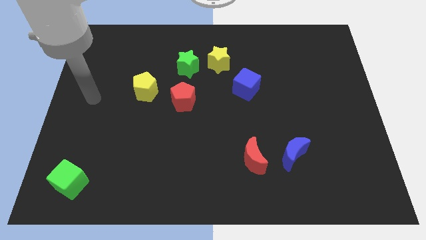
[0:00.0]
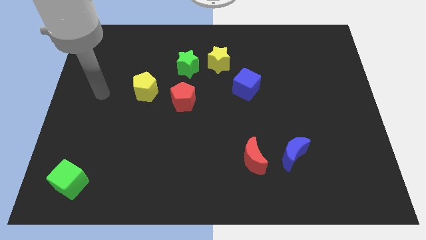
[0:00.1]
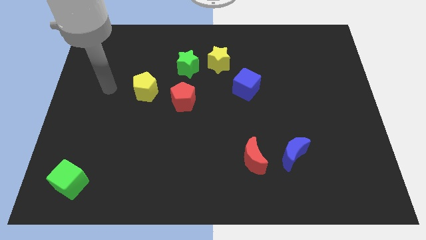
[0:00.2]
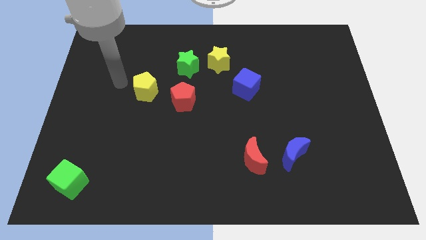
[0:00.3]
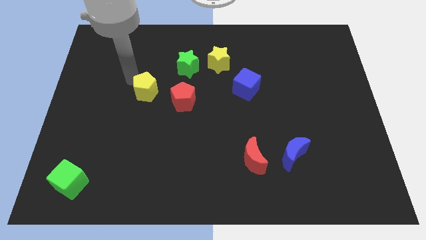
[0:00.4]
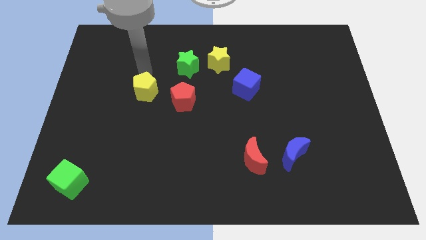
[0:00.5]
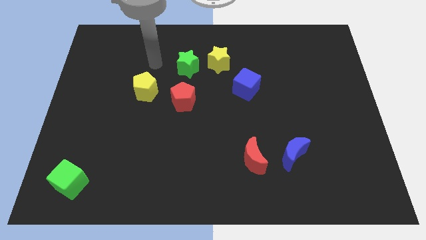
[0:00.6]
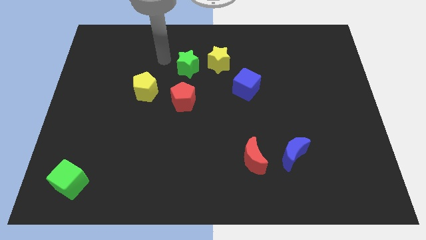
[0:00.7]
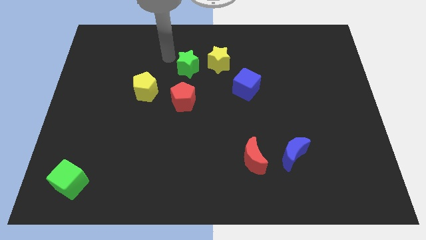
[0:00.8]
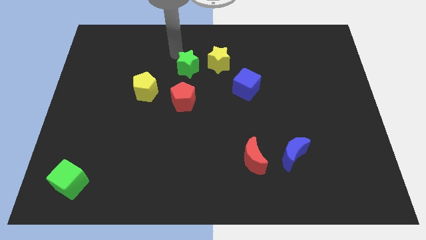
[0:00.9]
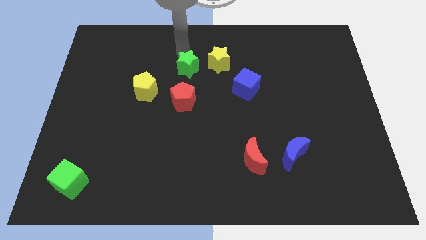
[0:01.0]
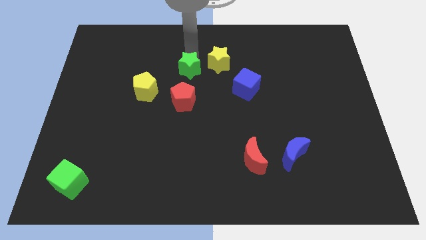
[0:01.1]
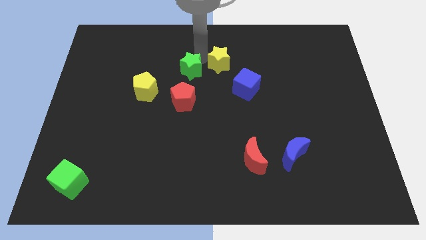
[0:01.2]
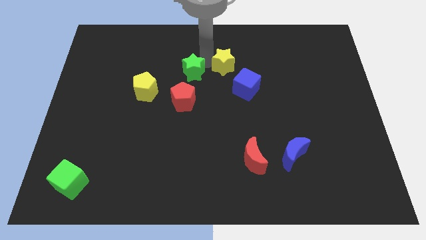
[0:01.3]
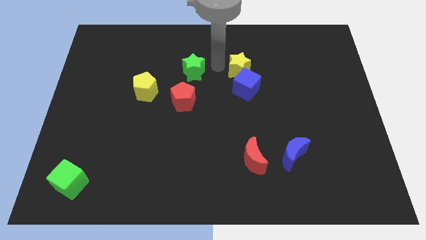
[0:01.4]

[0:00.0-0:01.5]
separate the green star from the yellow star

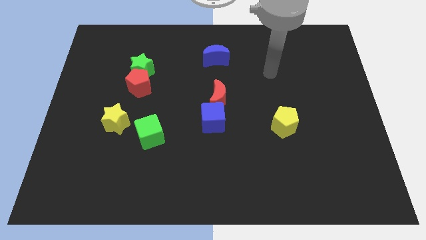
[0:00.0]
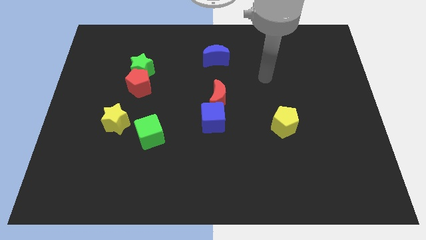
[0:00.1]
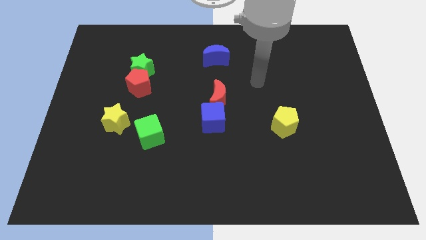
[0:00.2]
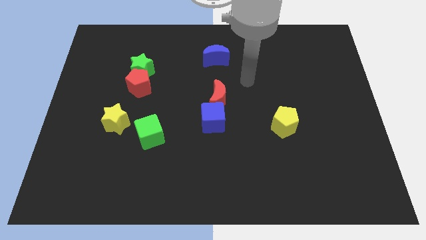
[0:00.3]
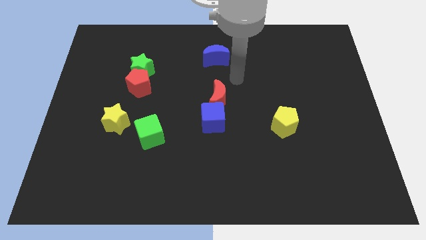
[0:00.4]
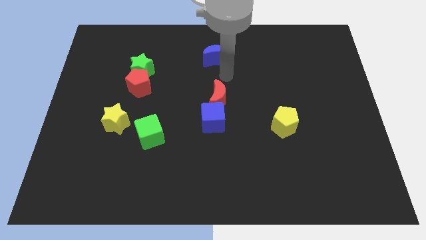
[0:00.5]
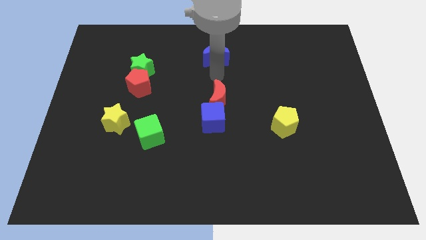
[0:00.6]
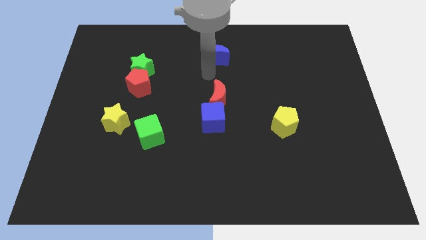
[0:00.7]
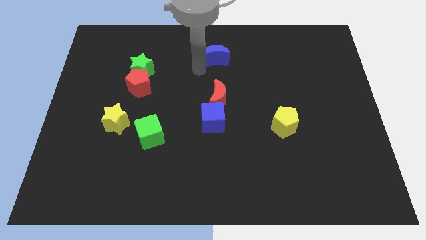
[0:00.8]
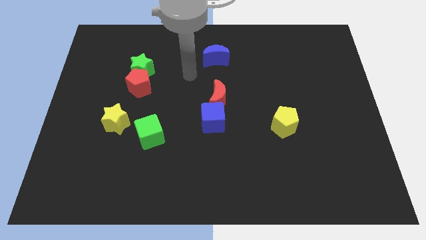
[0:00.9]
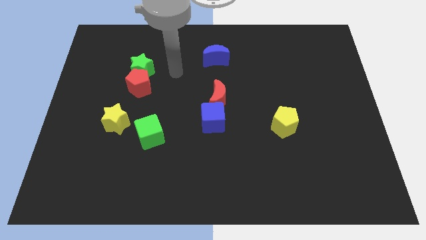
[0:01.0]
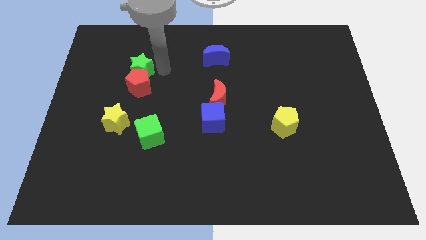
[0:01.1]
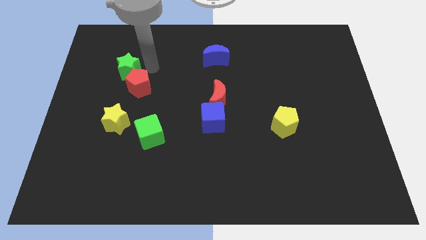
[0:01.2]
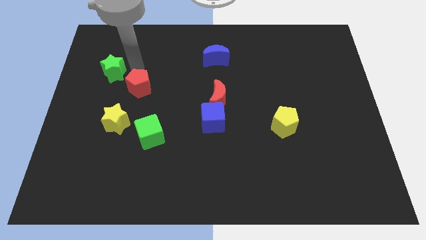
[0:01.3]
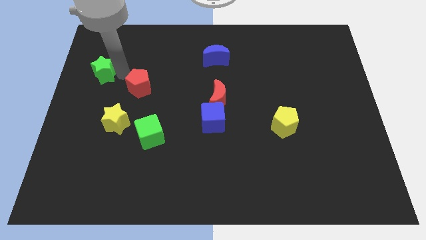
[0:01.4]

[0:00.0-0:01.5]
pull the red pentagon apart from the green star

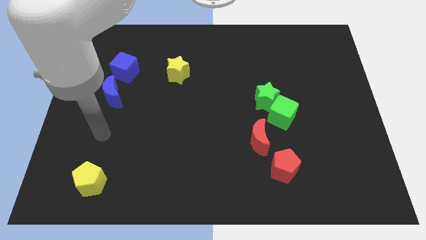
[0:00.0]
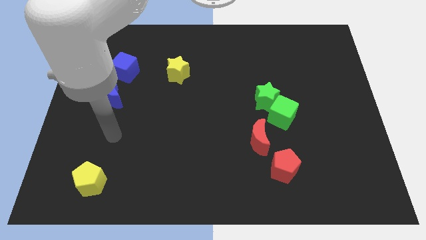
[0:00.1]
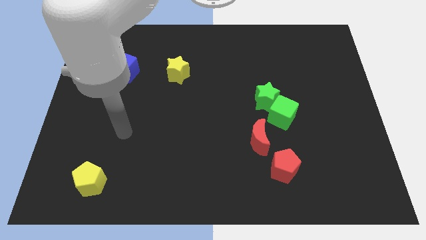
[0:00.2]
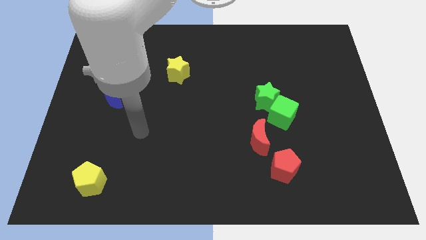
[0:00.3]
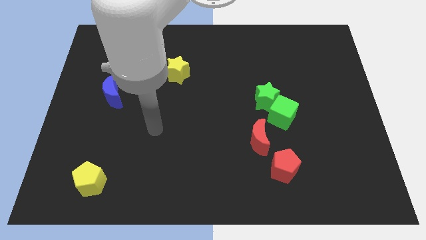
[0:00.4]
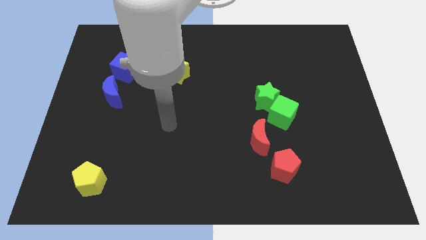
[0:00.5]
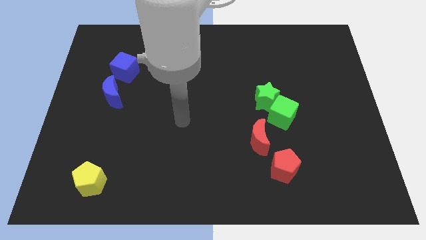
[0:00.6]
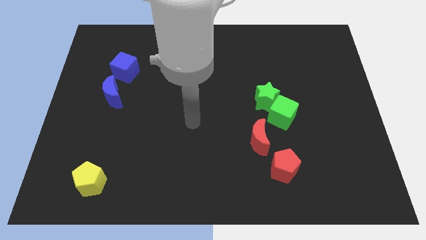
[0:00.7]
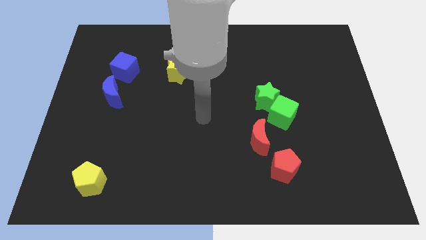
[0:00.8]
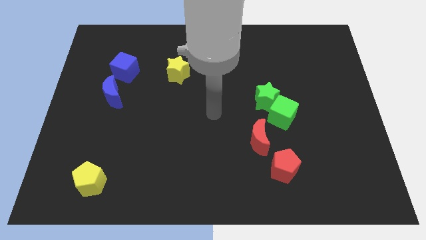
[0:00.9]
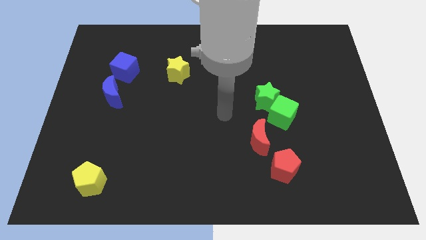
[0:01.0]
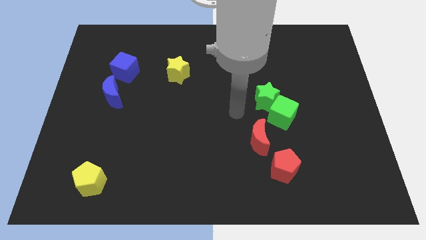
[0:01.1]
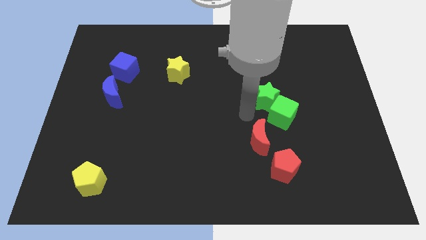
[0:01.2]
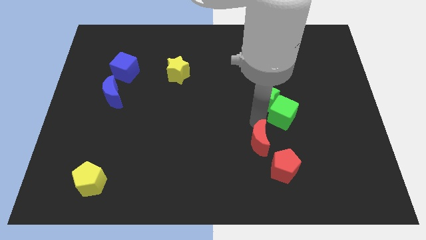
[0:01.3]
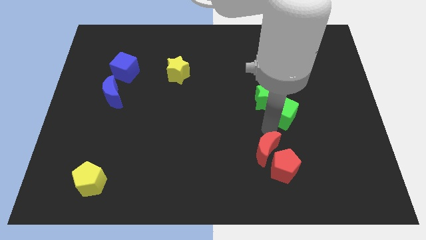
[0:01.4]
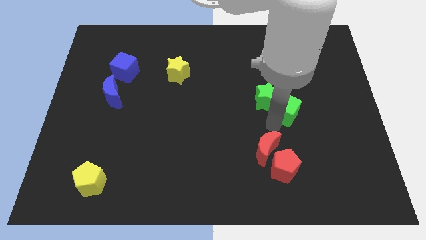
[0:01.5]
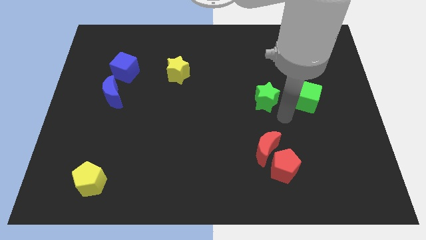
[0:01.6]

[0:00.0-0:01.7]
pull the green star apart from the green cube

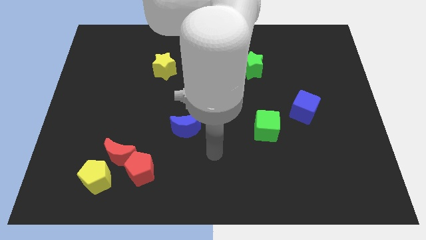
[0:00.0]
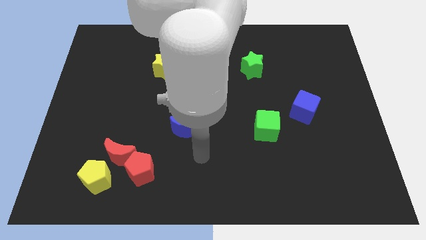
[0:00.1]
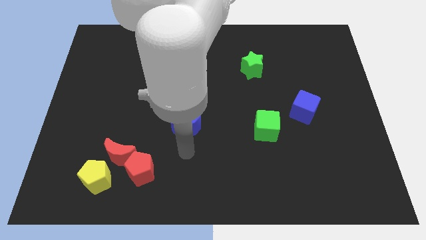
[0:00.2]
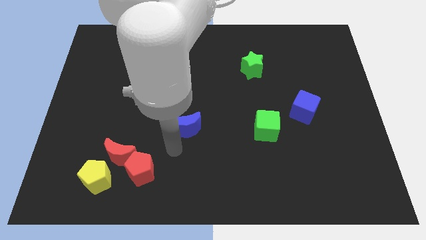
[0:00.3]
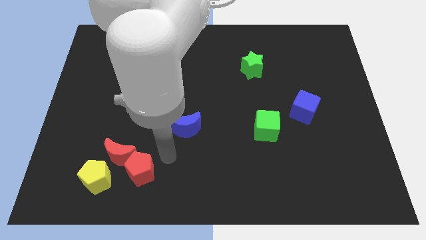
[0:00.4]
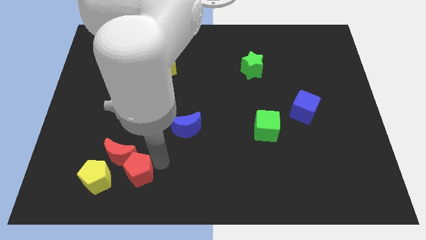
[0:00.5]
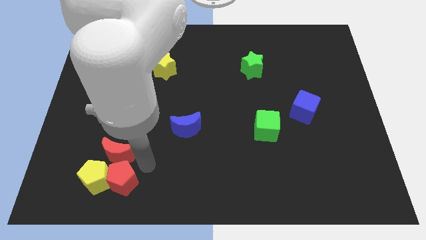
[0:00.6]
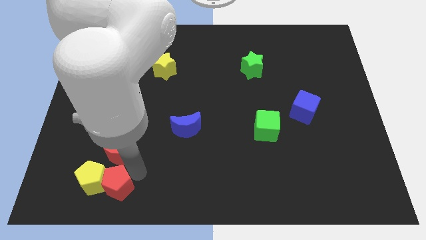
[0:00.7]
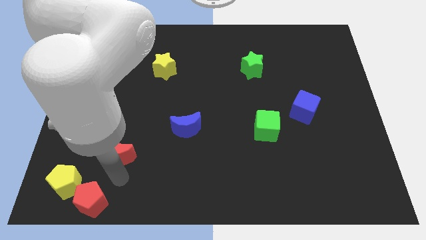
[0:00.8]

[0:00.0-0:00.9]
pull the red moon apart from the red pentagon and yellow pentagon

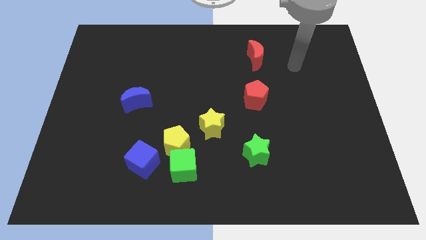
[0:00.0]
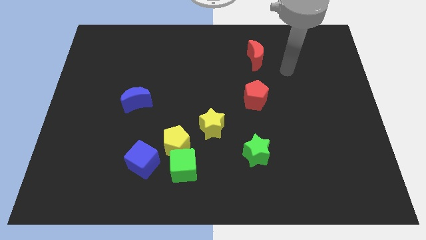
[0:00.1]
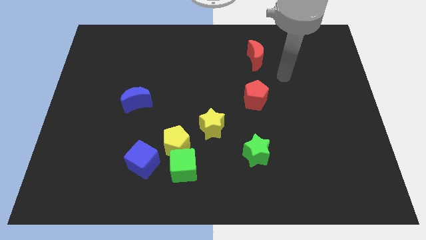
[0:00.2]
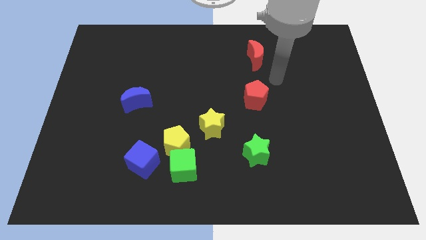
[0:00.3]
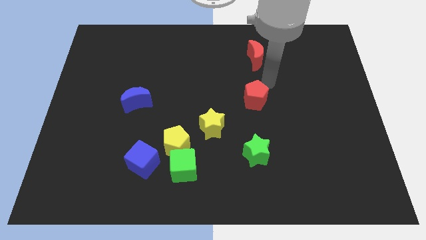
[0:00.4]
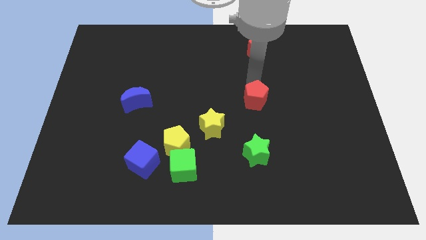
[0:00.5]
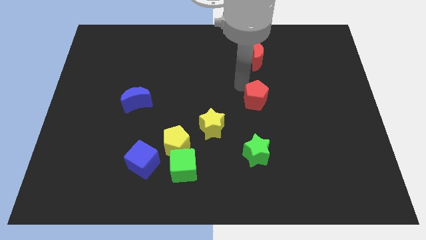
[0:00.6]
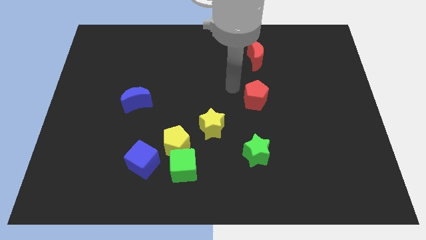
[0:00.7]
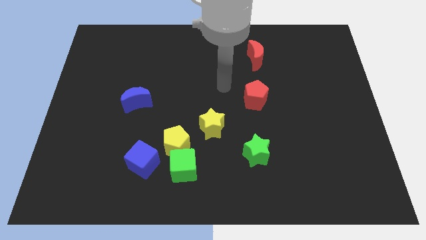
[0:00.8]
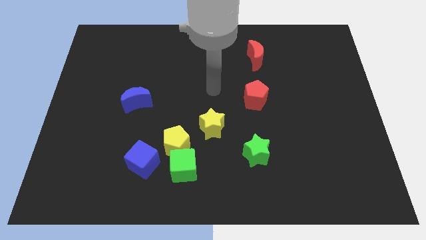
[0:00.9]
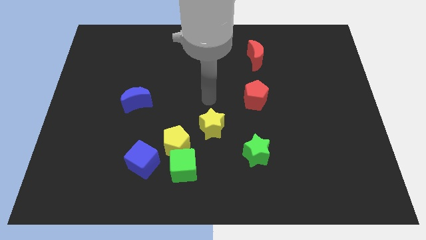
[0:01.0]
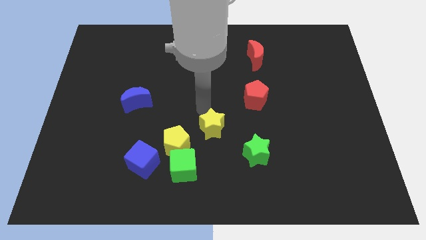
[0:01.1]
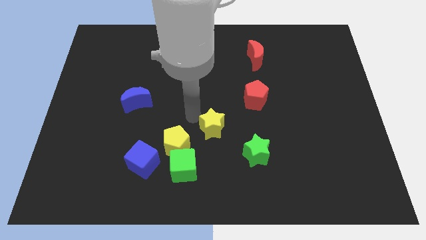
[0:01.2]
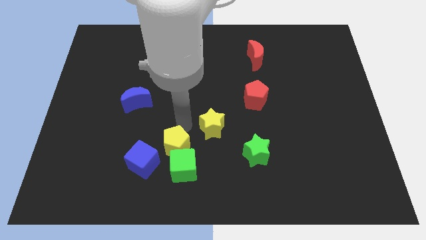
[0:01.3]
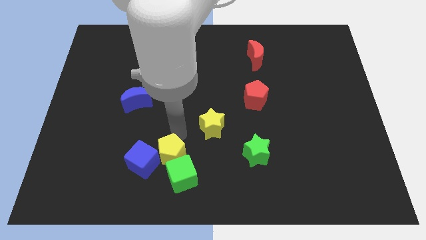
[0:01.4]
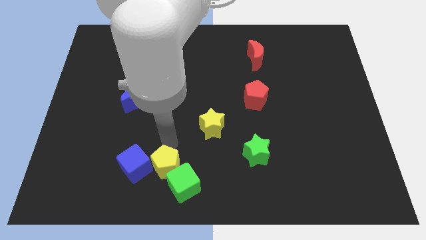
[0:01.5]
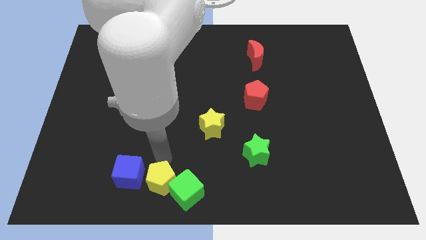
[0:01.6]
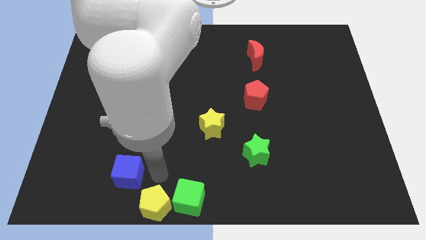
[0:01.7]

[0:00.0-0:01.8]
pull the green cube apart from the yellow pentagon and blue cube

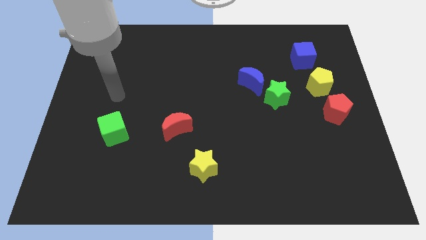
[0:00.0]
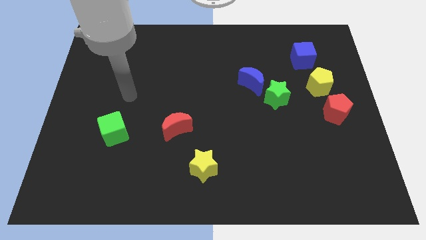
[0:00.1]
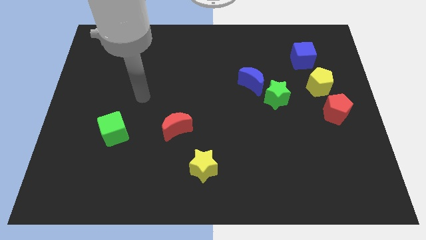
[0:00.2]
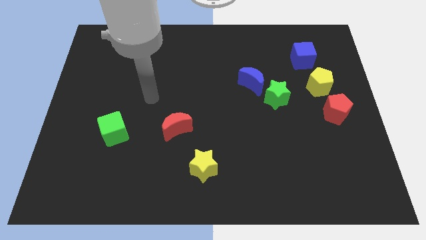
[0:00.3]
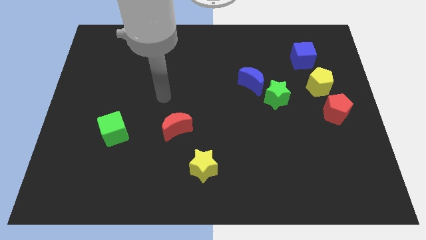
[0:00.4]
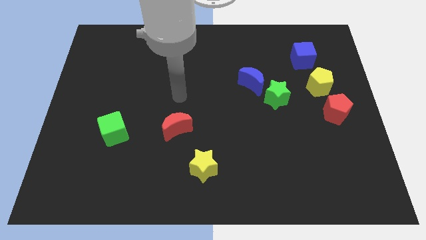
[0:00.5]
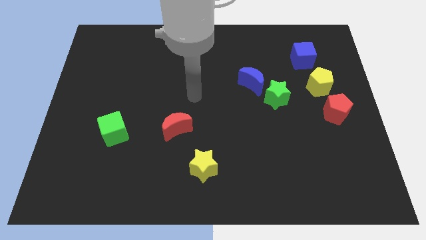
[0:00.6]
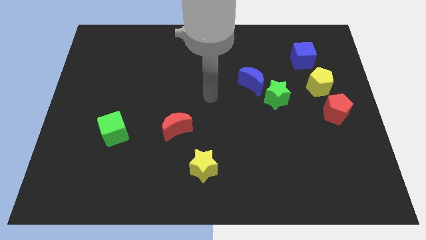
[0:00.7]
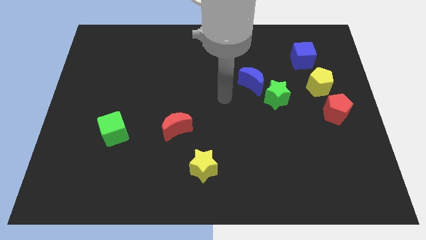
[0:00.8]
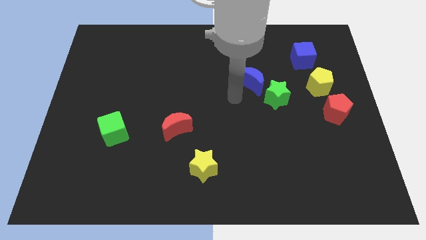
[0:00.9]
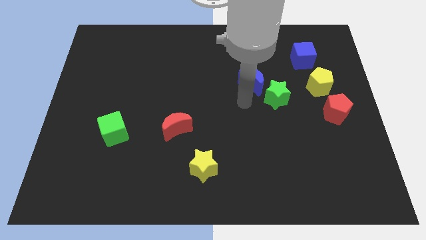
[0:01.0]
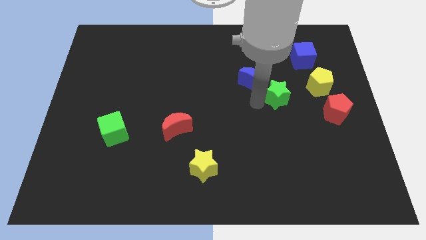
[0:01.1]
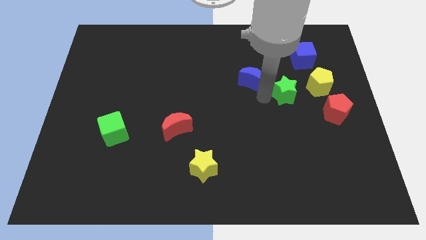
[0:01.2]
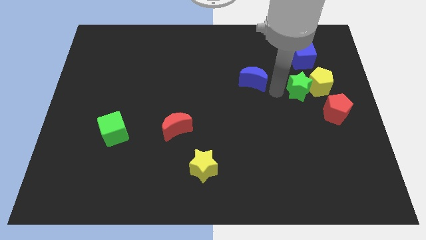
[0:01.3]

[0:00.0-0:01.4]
pull the blue moon apart from the green star

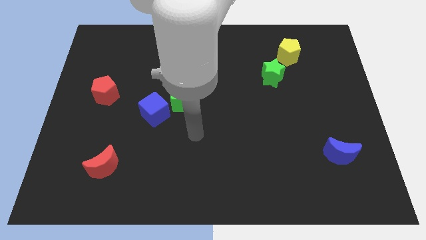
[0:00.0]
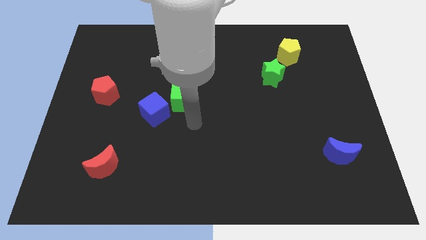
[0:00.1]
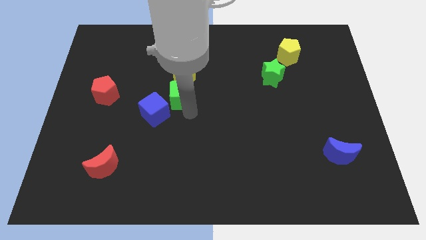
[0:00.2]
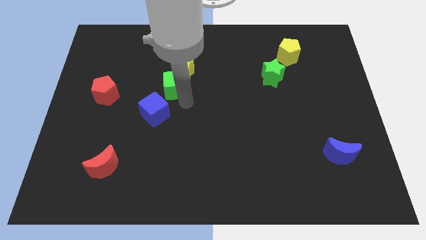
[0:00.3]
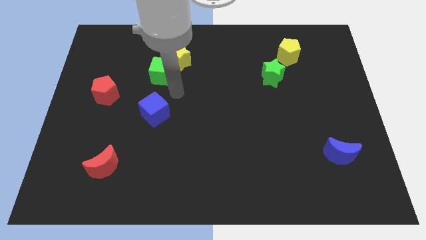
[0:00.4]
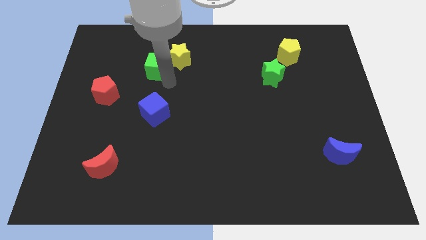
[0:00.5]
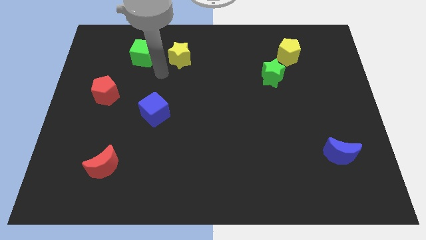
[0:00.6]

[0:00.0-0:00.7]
separate the yellow star from the green cube
